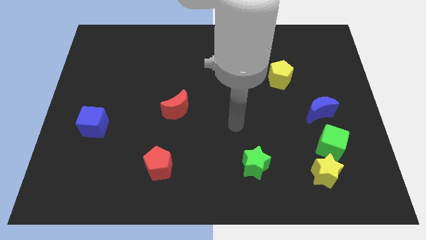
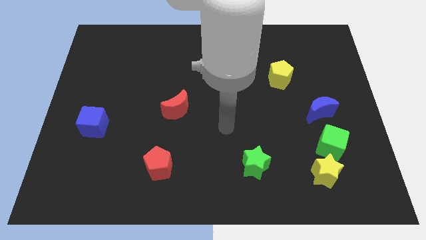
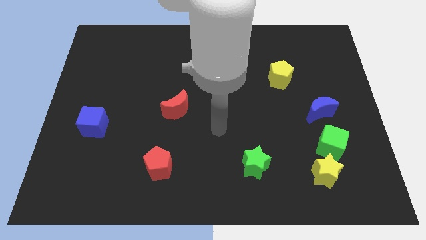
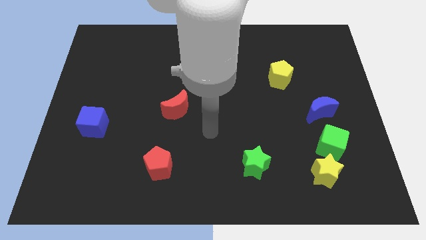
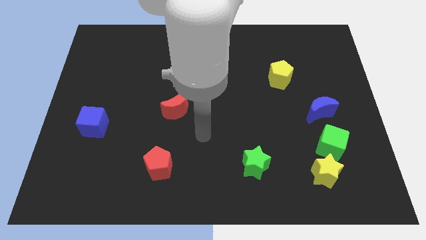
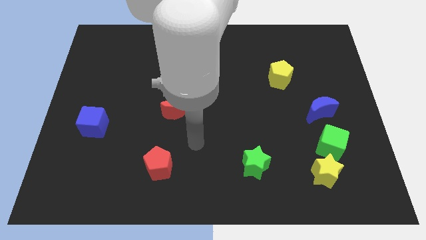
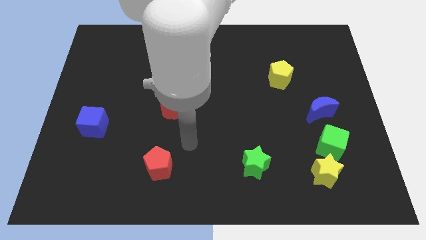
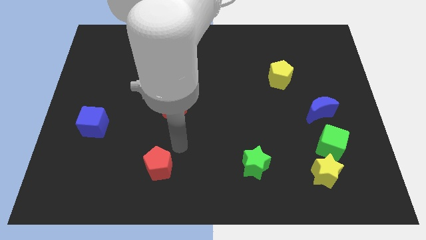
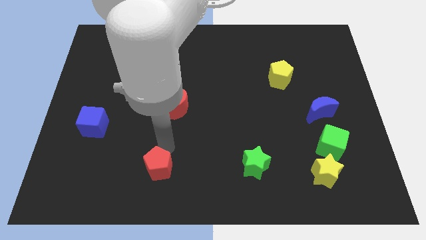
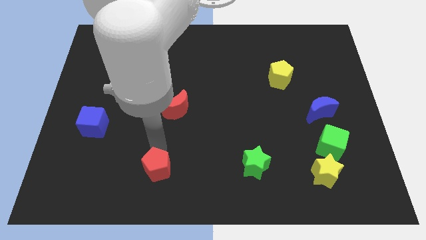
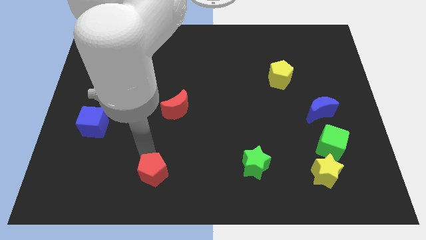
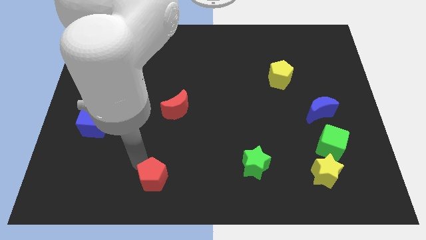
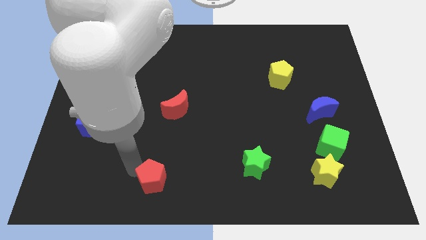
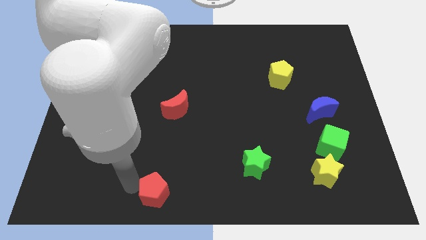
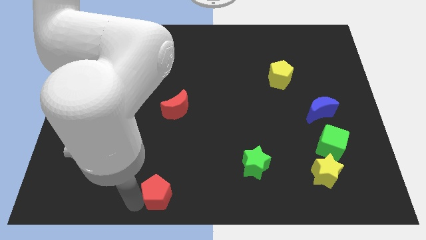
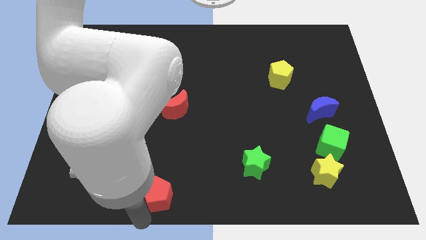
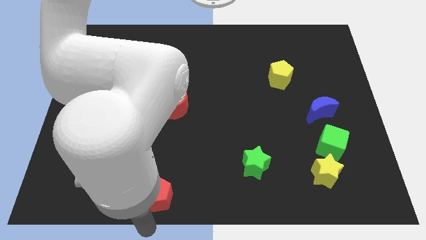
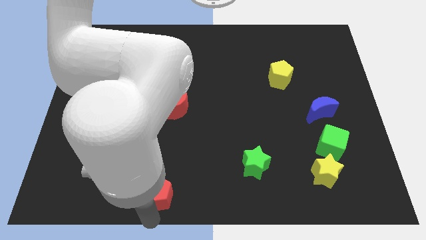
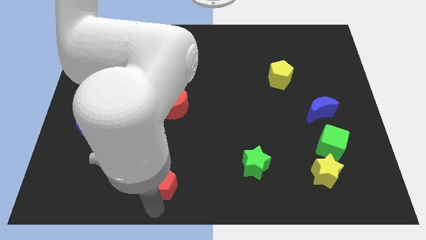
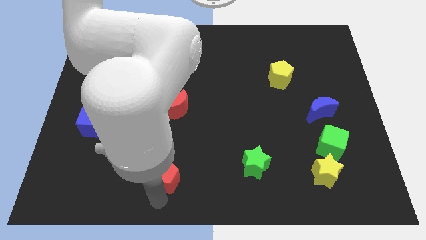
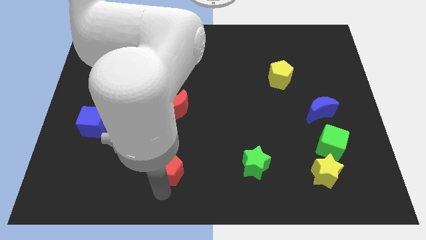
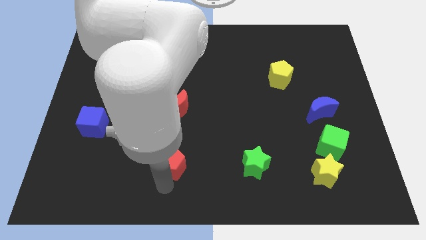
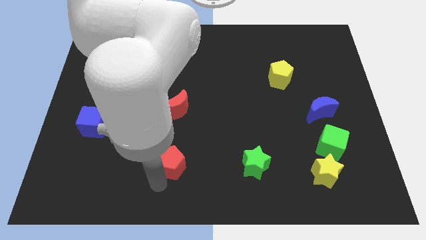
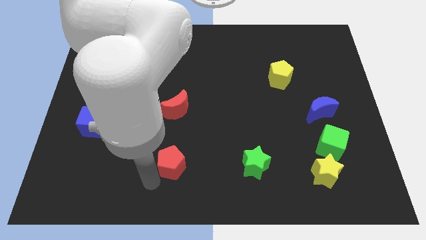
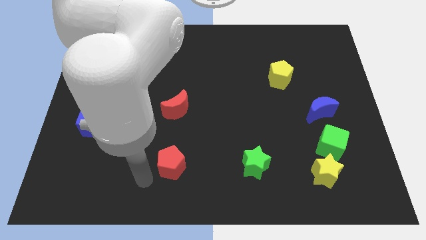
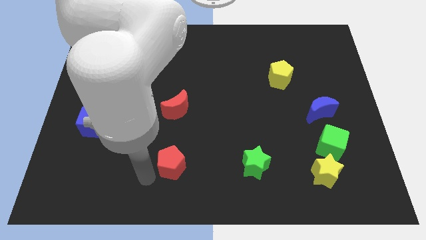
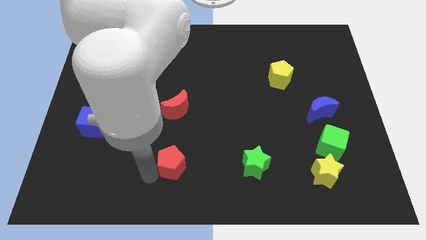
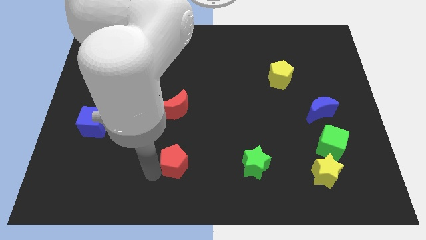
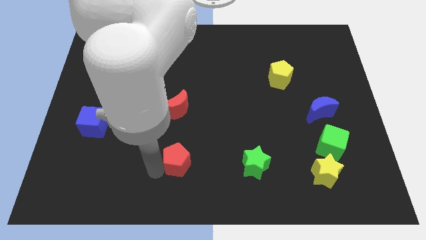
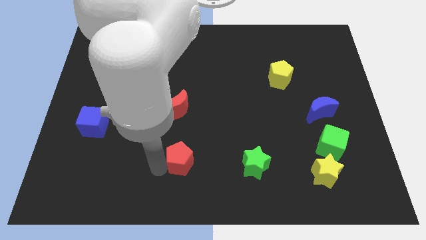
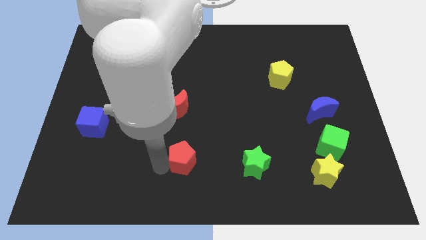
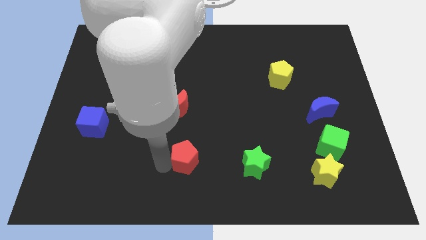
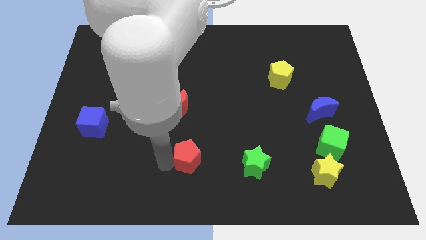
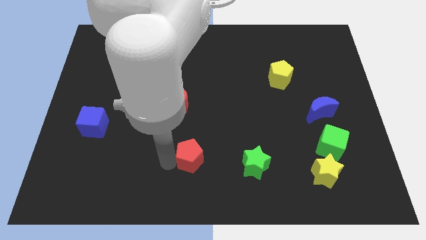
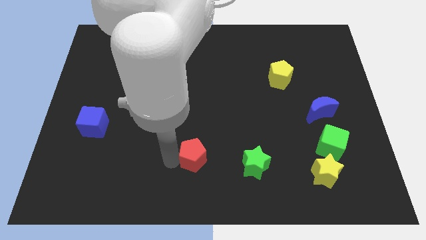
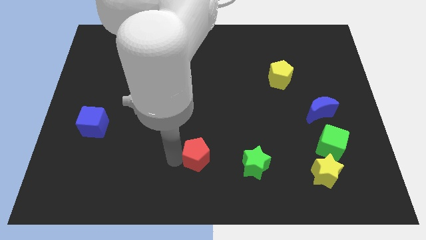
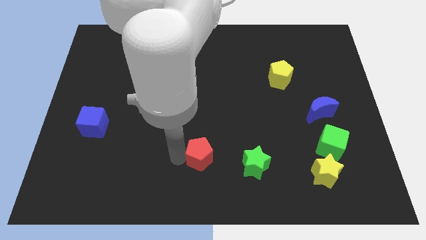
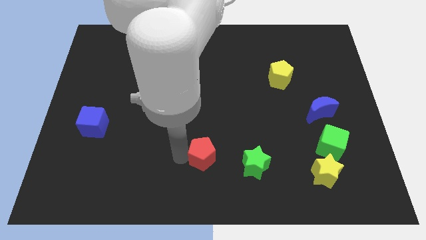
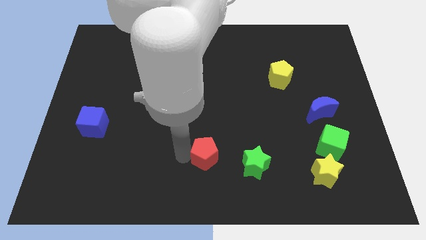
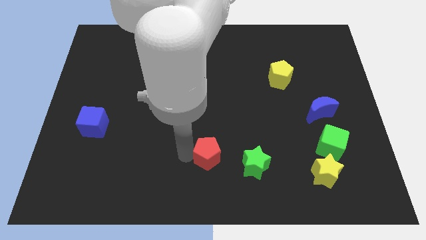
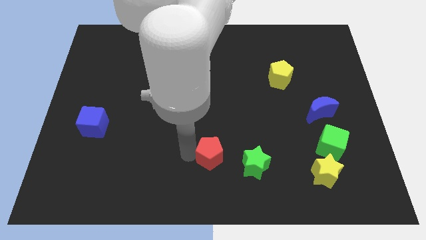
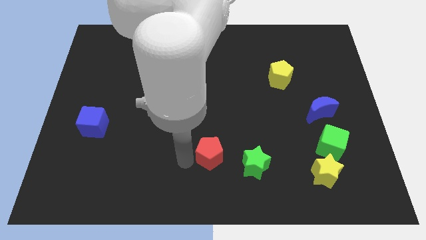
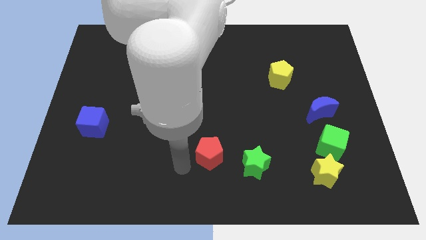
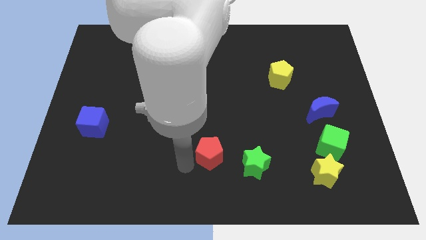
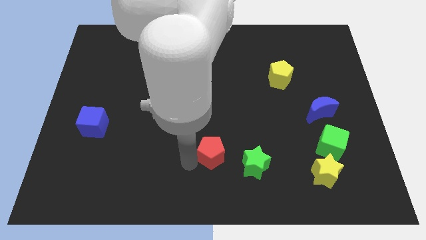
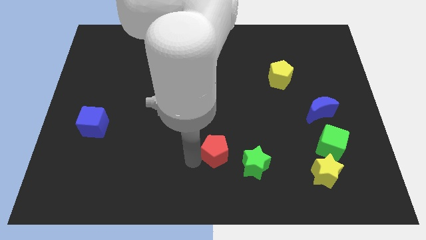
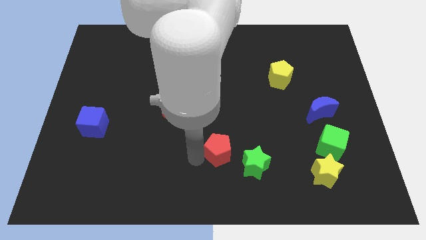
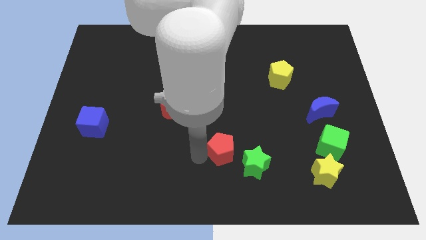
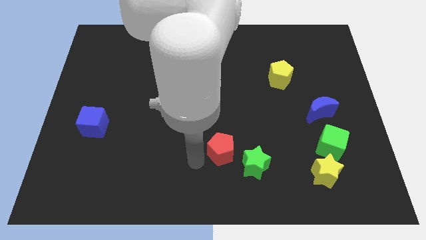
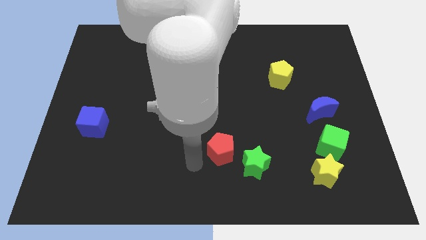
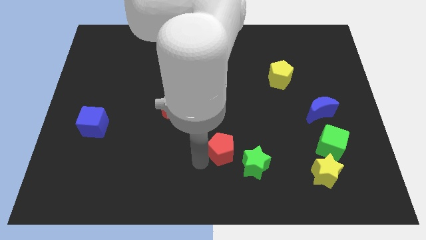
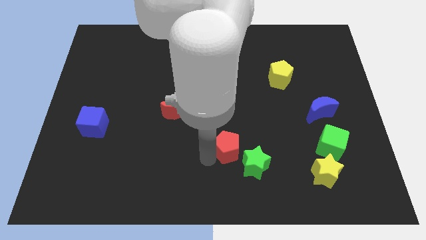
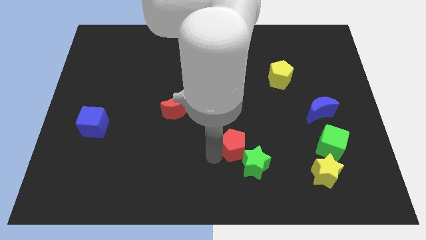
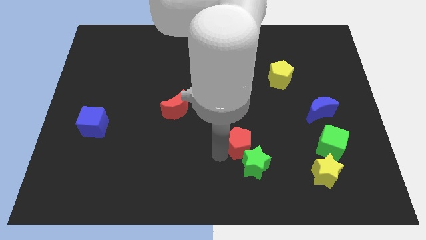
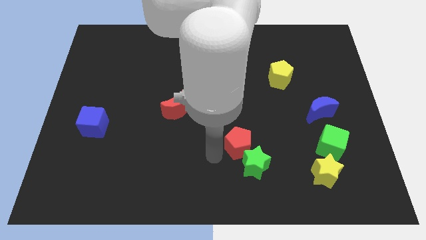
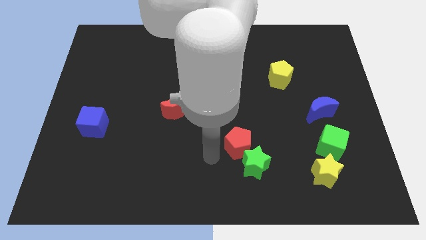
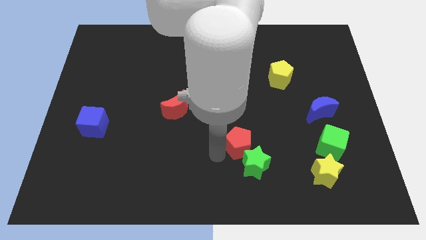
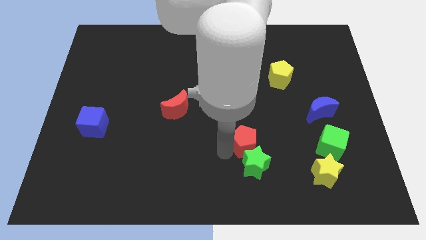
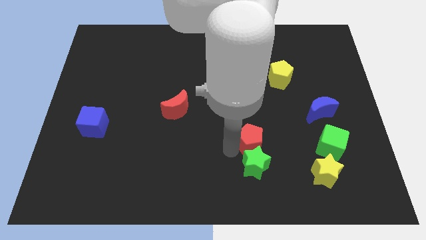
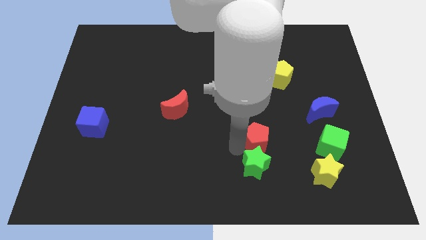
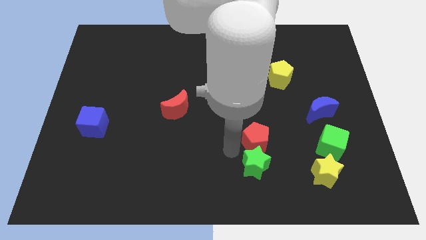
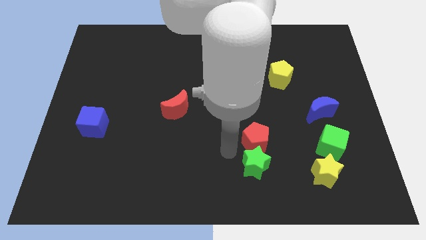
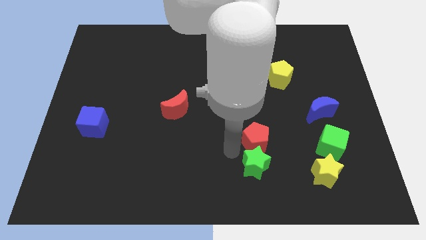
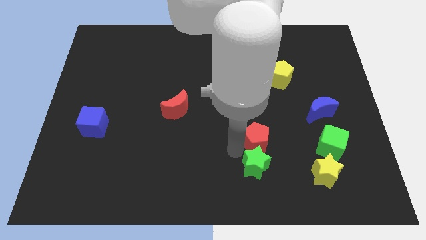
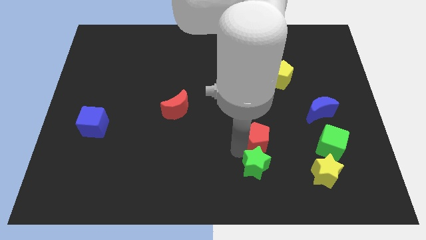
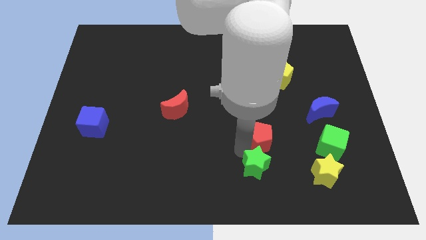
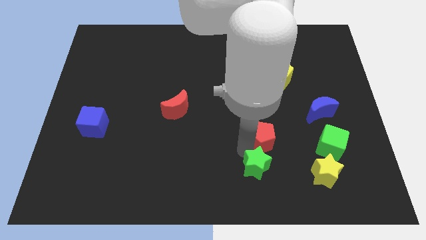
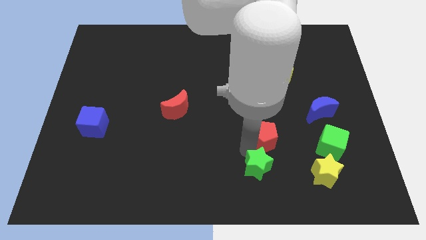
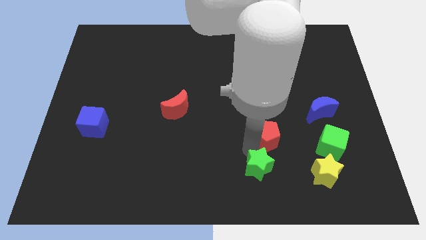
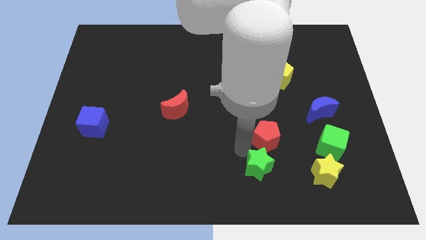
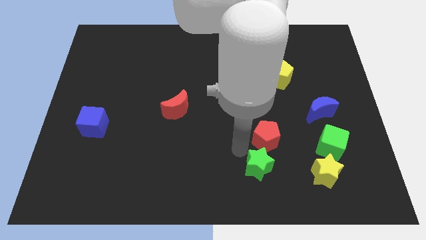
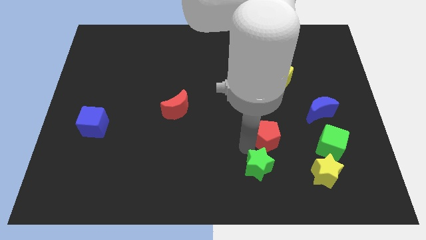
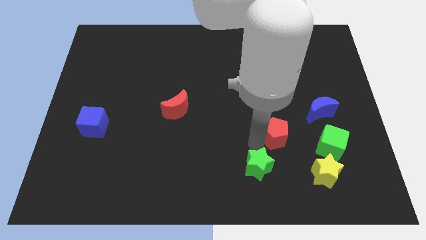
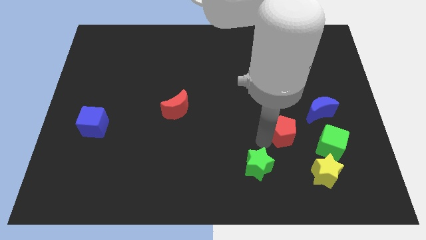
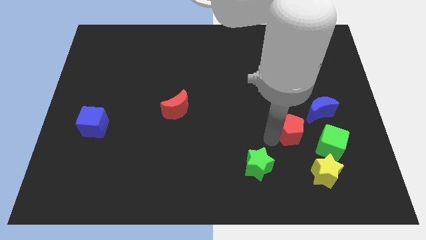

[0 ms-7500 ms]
push the red pentagon diagonally up and to the left of the green cube
